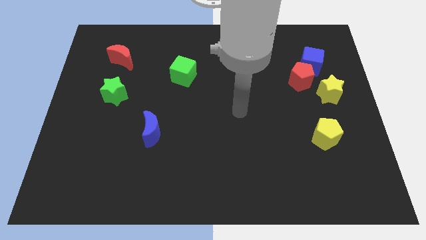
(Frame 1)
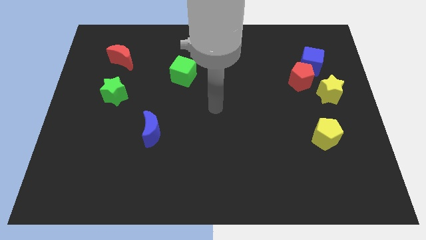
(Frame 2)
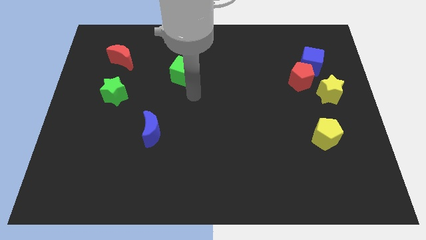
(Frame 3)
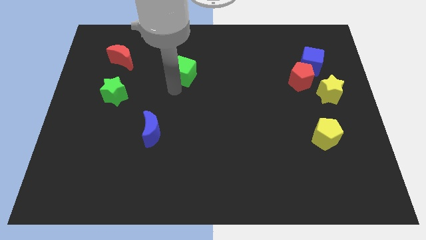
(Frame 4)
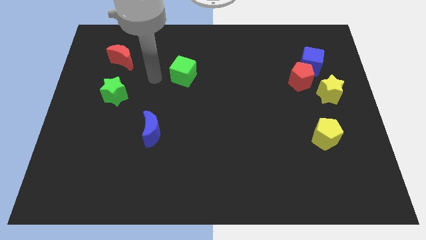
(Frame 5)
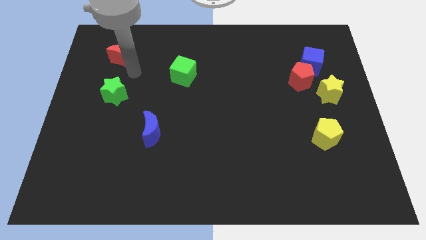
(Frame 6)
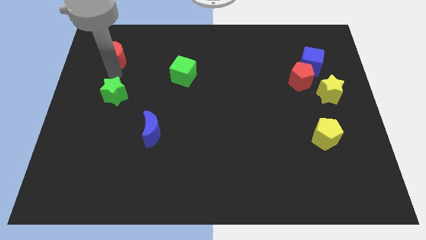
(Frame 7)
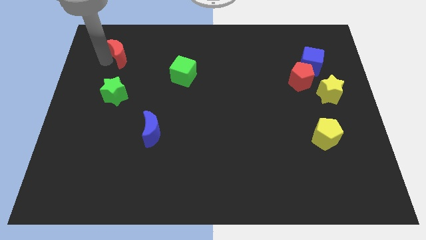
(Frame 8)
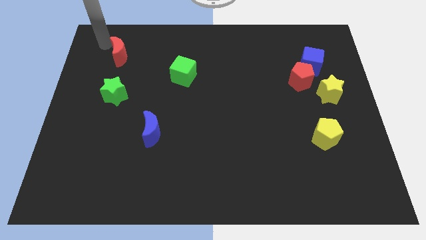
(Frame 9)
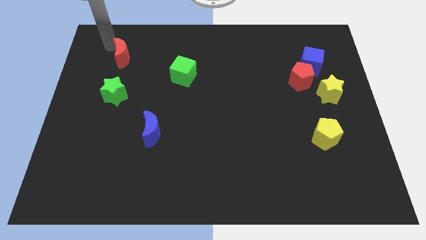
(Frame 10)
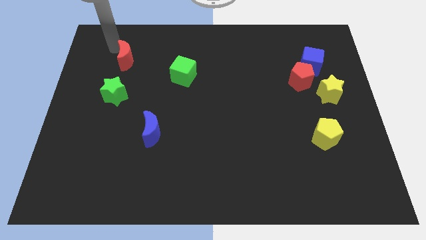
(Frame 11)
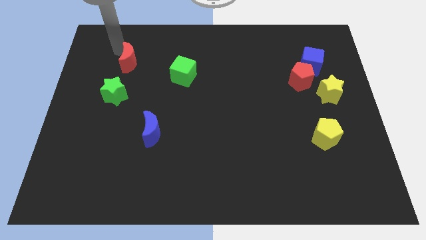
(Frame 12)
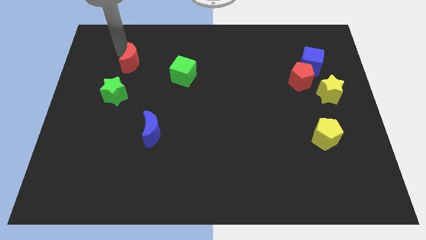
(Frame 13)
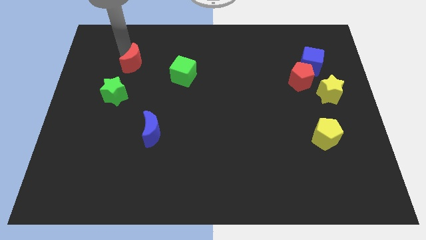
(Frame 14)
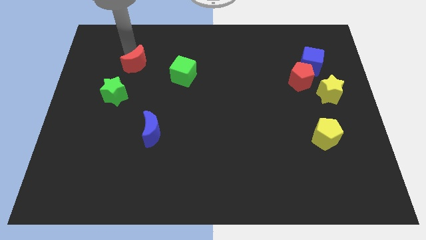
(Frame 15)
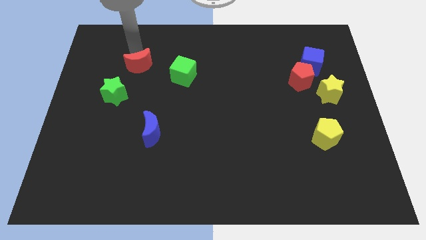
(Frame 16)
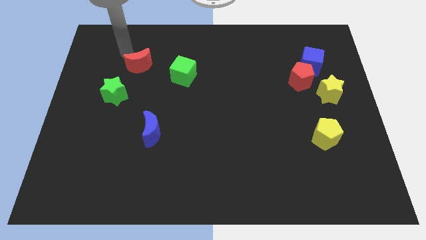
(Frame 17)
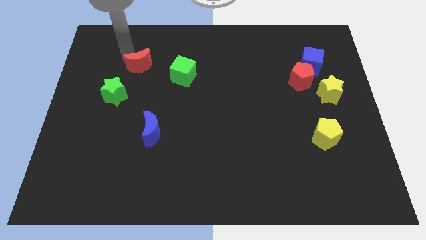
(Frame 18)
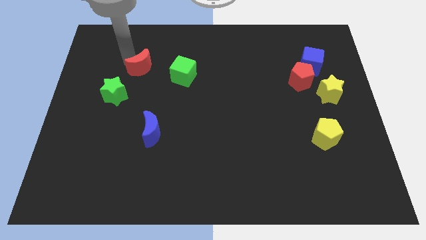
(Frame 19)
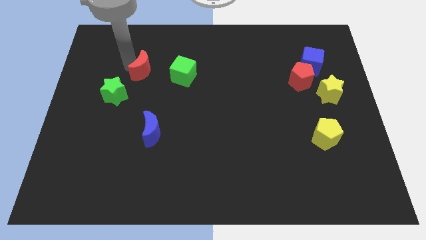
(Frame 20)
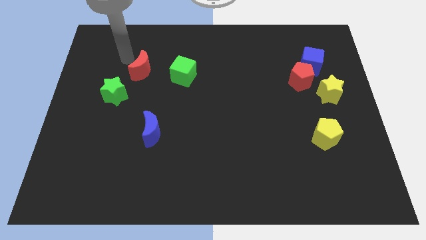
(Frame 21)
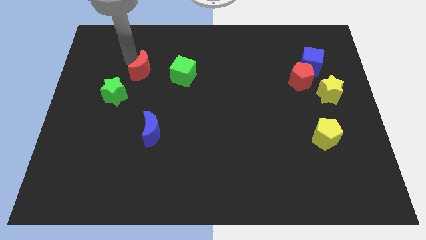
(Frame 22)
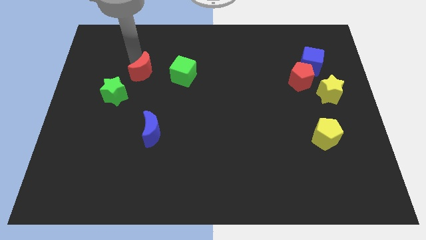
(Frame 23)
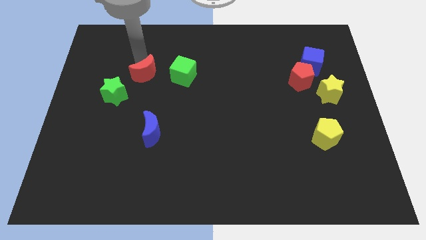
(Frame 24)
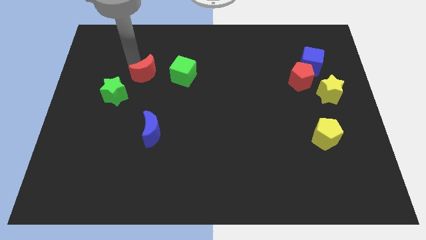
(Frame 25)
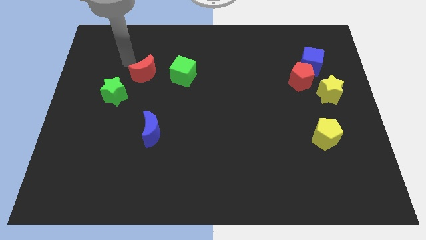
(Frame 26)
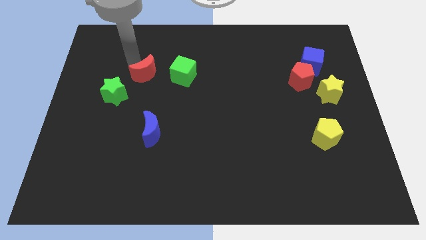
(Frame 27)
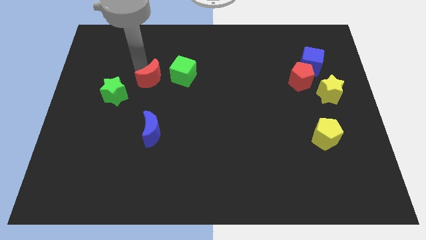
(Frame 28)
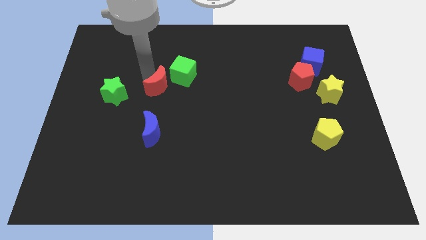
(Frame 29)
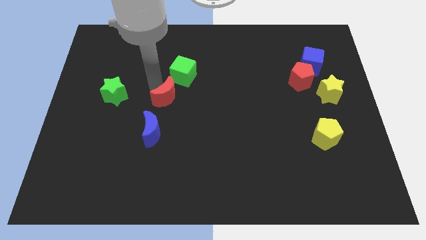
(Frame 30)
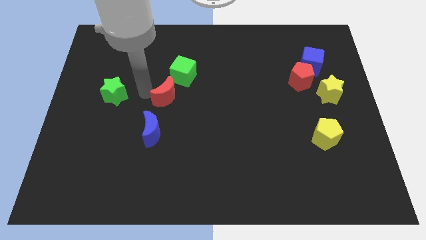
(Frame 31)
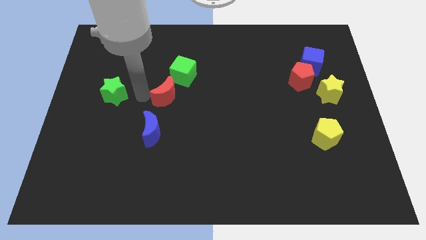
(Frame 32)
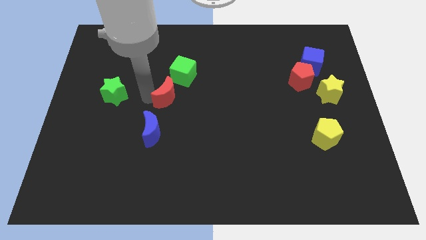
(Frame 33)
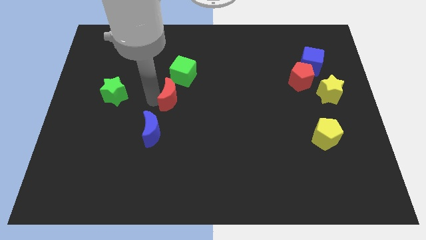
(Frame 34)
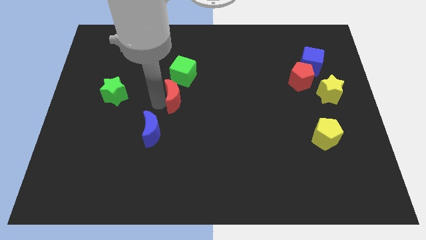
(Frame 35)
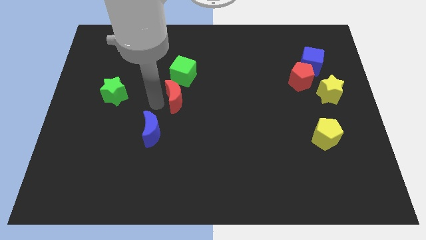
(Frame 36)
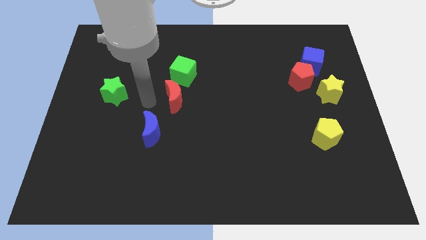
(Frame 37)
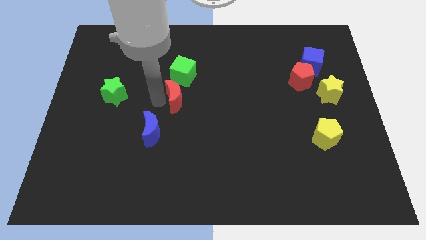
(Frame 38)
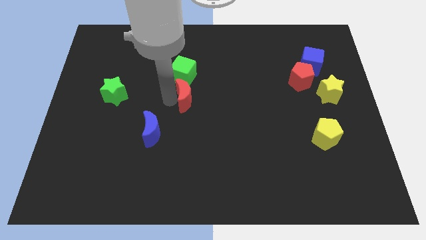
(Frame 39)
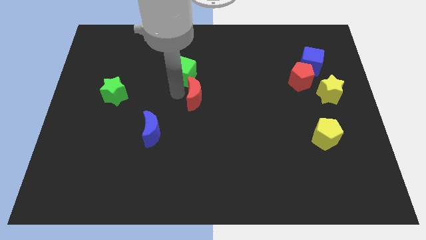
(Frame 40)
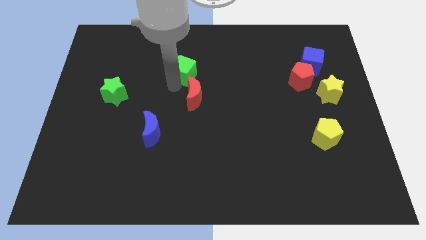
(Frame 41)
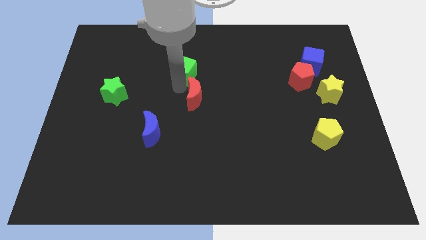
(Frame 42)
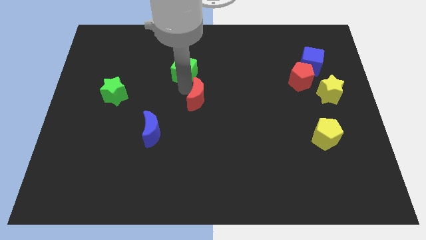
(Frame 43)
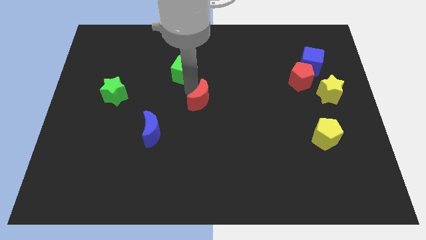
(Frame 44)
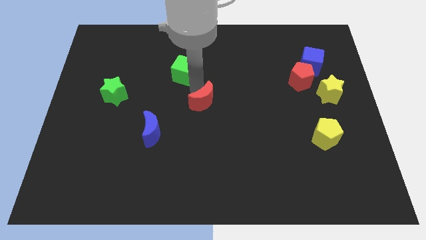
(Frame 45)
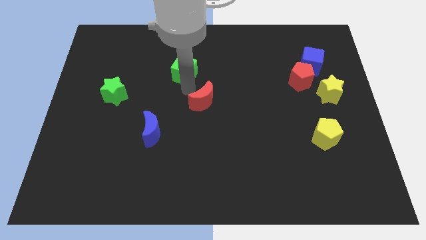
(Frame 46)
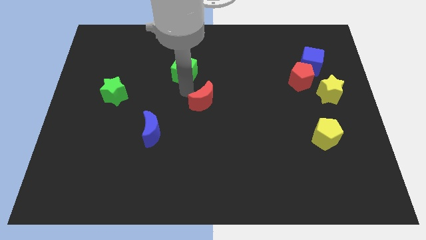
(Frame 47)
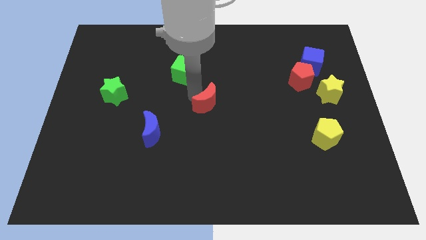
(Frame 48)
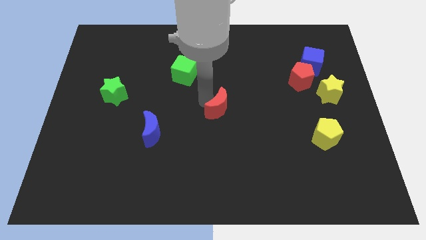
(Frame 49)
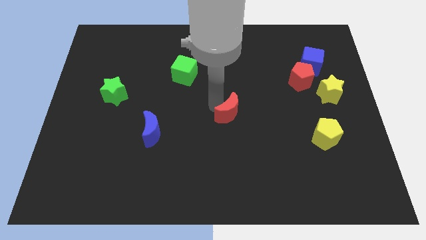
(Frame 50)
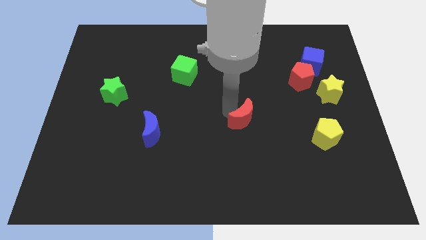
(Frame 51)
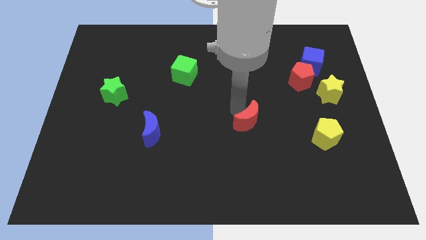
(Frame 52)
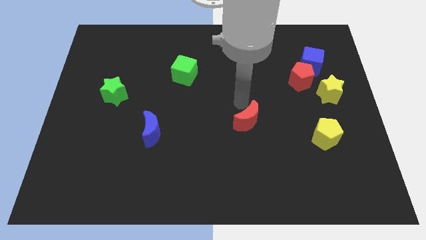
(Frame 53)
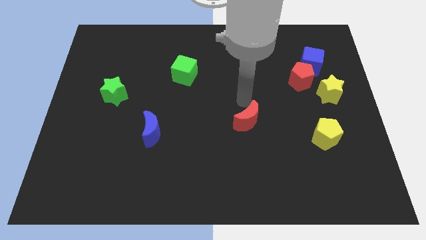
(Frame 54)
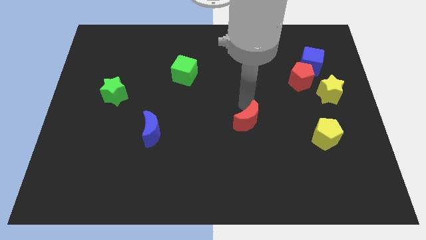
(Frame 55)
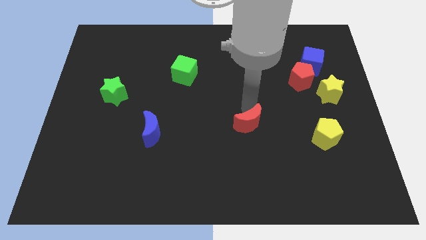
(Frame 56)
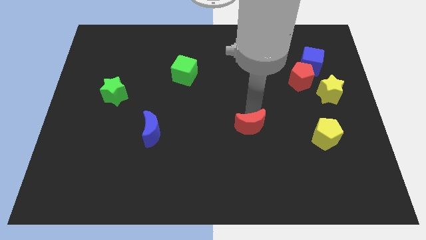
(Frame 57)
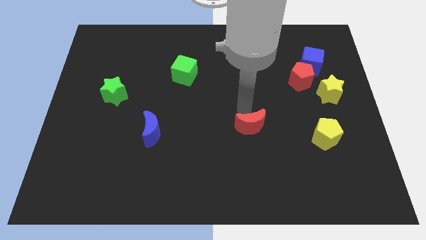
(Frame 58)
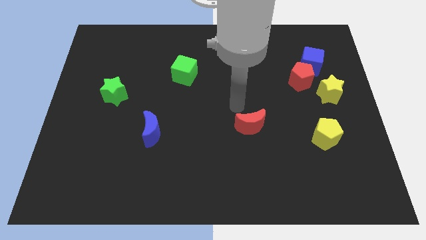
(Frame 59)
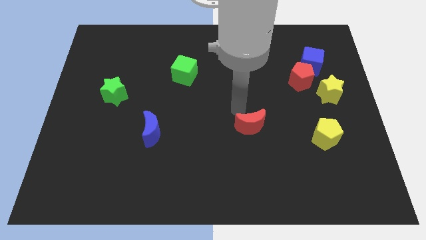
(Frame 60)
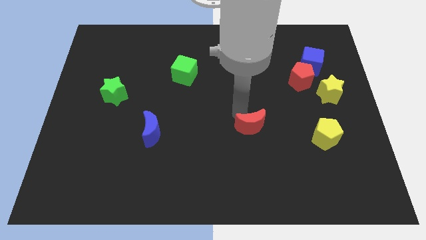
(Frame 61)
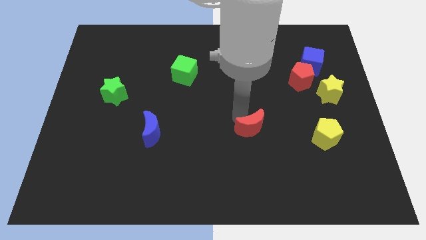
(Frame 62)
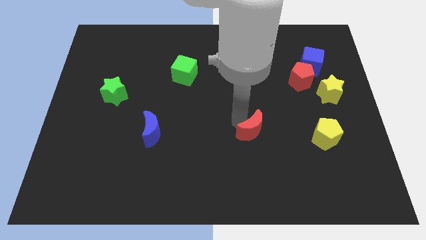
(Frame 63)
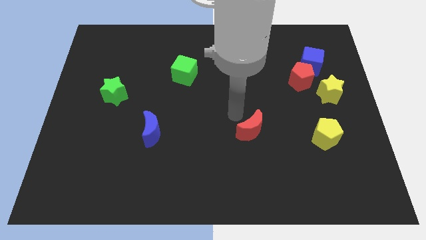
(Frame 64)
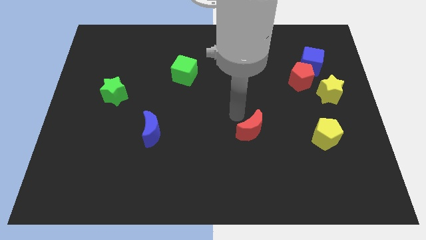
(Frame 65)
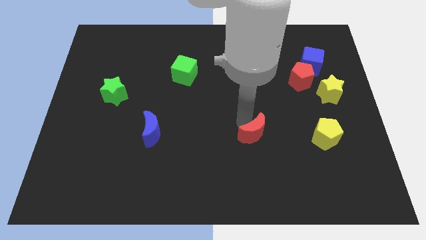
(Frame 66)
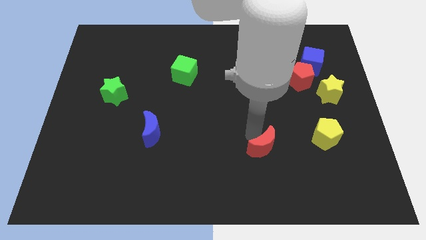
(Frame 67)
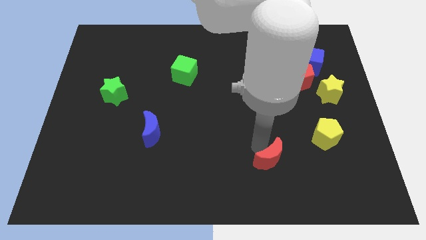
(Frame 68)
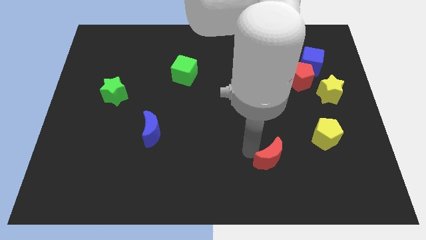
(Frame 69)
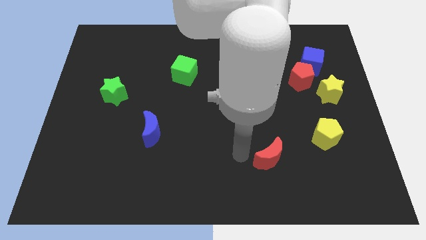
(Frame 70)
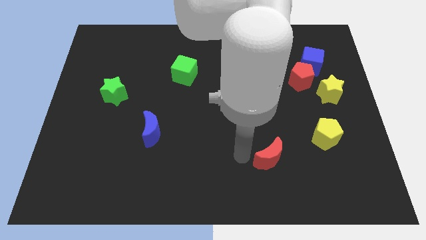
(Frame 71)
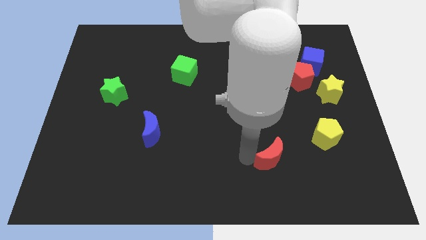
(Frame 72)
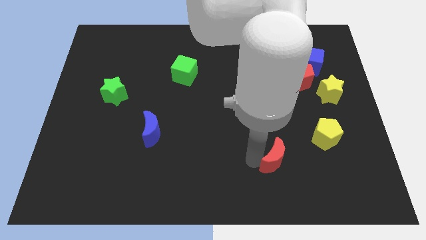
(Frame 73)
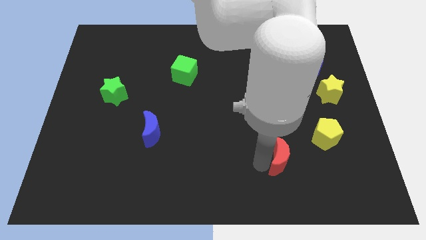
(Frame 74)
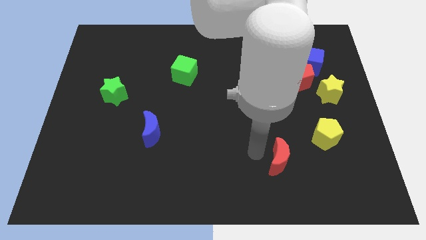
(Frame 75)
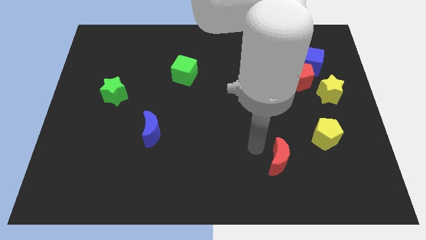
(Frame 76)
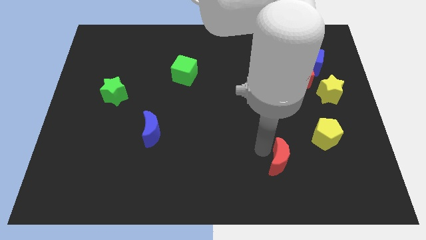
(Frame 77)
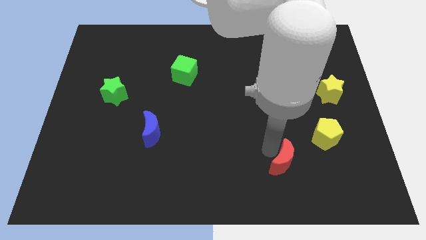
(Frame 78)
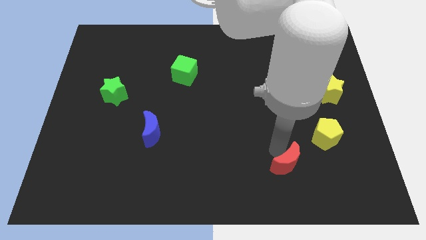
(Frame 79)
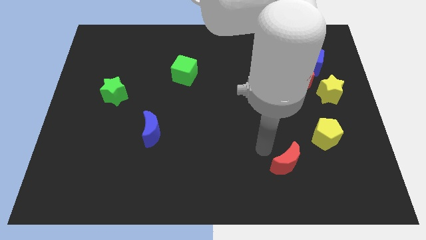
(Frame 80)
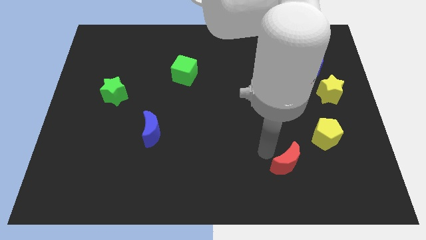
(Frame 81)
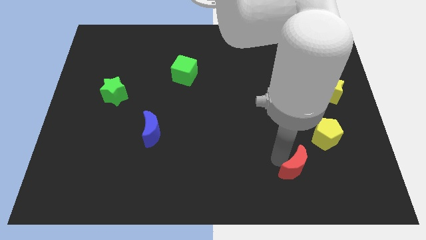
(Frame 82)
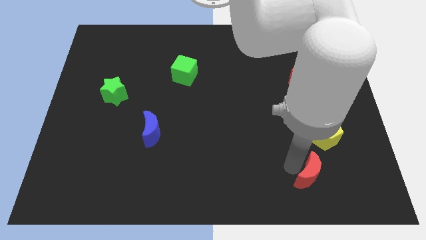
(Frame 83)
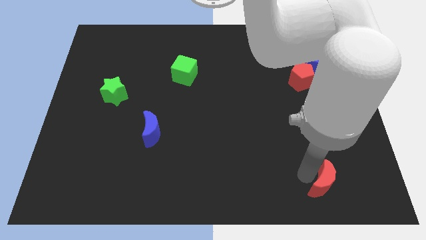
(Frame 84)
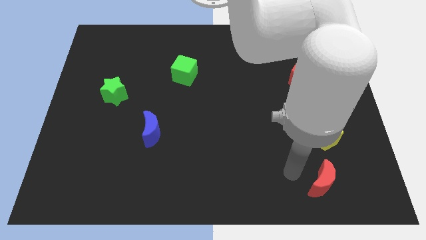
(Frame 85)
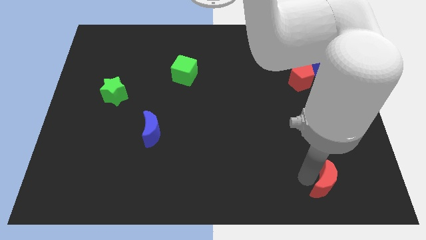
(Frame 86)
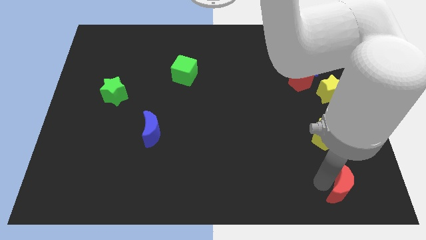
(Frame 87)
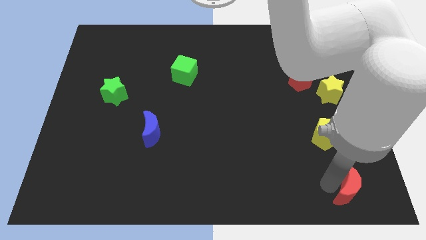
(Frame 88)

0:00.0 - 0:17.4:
move the red moon to the bottom right of the board
